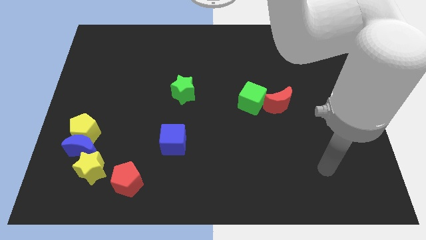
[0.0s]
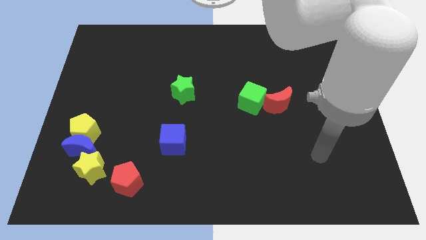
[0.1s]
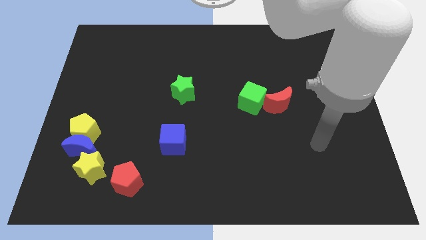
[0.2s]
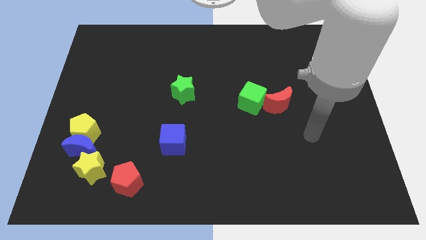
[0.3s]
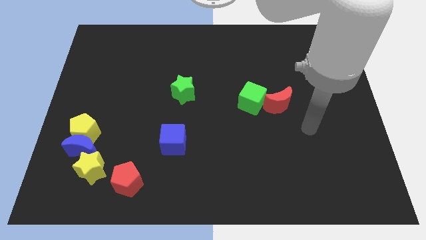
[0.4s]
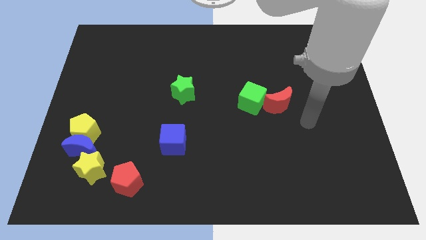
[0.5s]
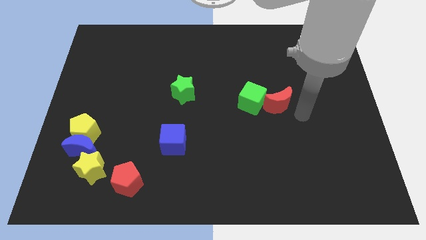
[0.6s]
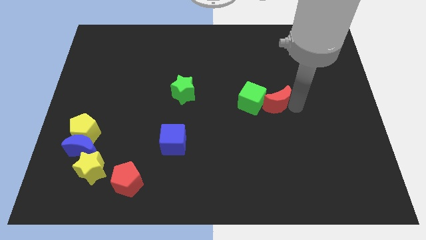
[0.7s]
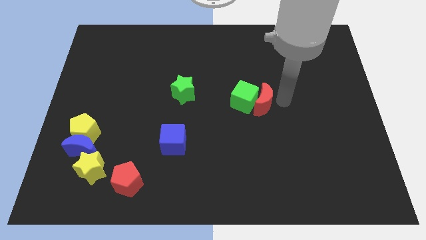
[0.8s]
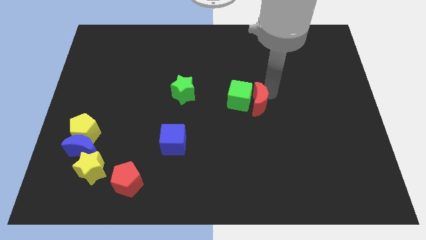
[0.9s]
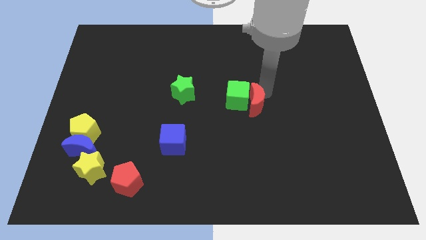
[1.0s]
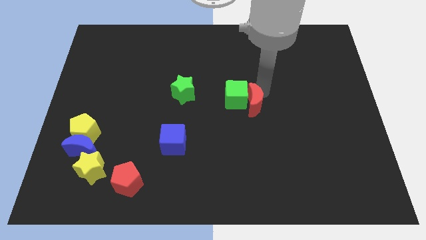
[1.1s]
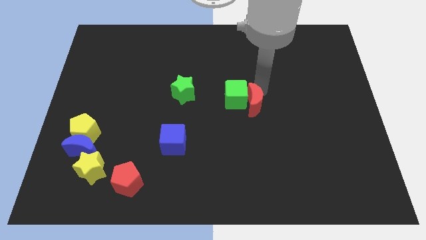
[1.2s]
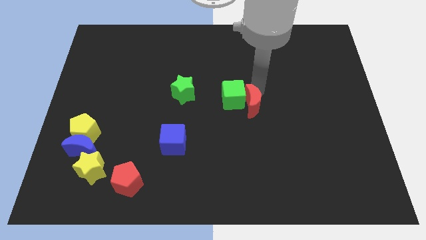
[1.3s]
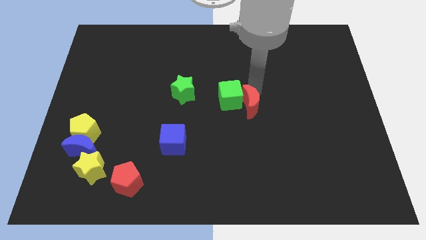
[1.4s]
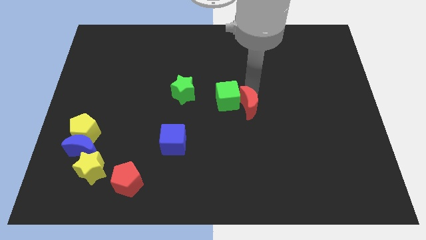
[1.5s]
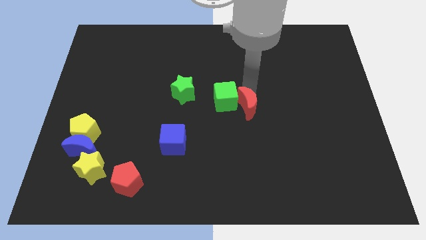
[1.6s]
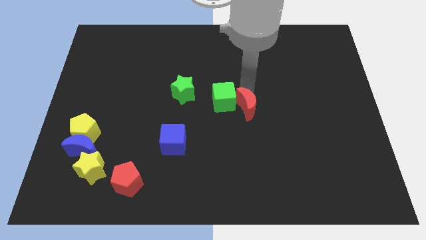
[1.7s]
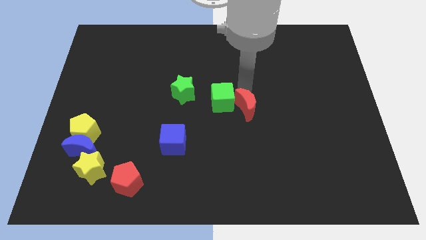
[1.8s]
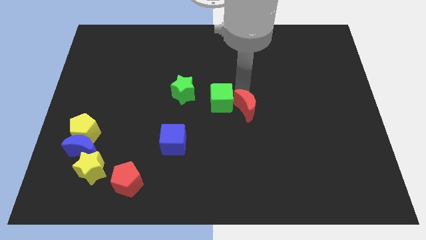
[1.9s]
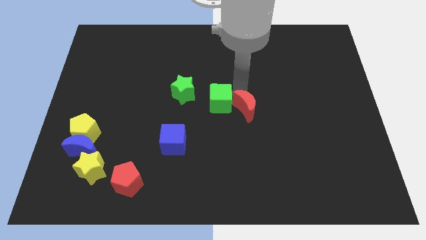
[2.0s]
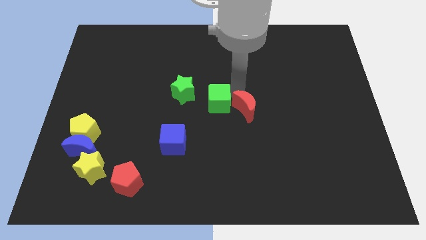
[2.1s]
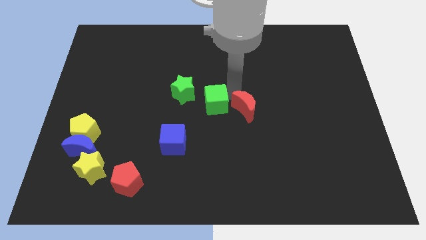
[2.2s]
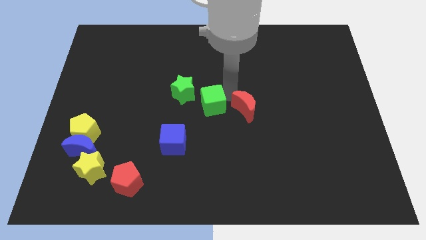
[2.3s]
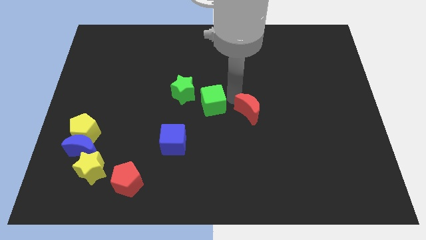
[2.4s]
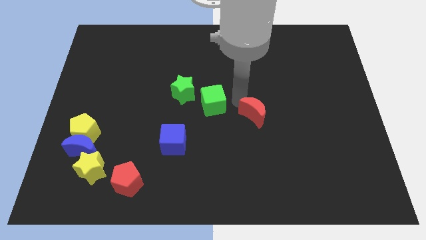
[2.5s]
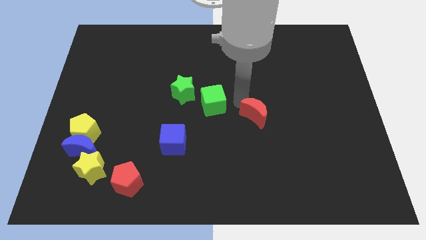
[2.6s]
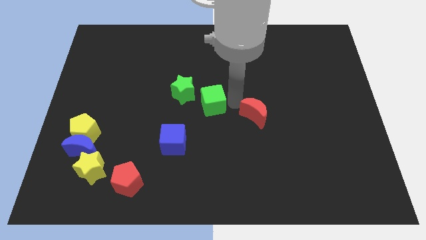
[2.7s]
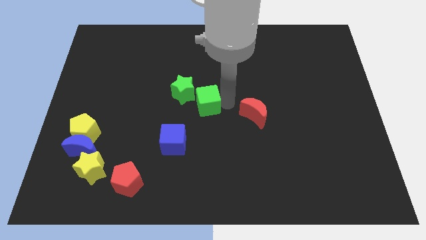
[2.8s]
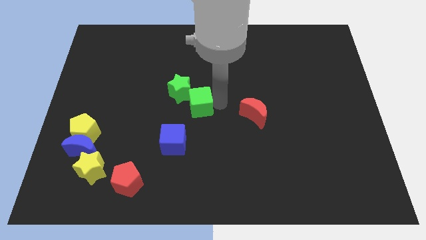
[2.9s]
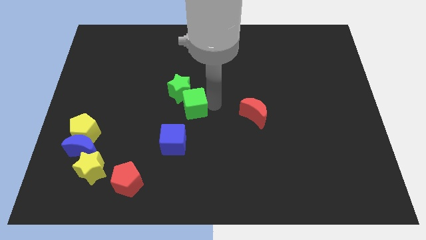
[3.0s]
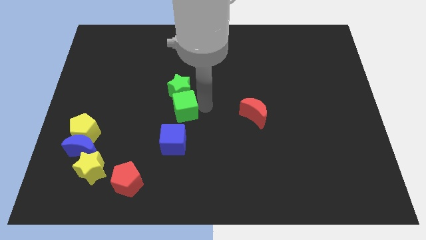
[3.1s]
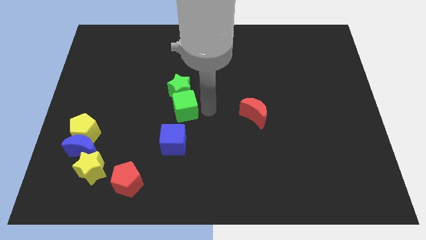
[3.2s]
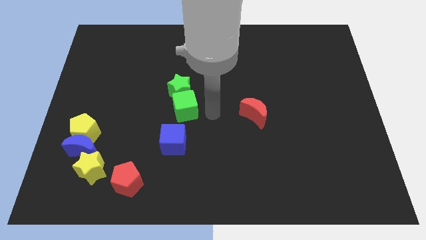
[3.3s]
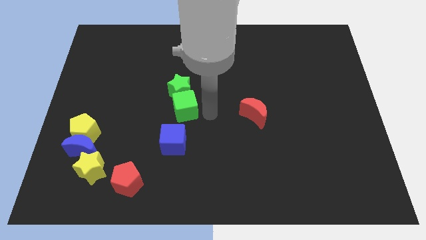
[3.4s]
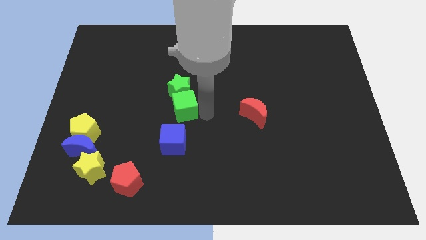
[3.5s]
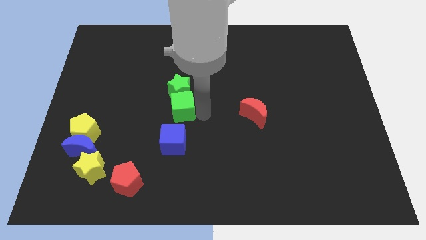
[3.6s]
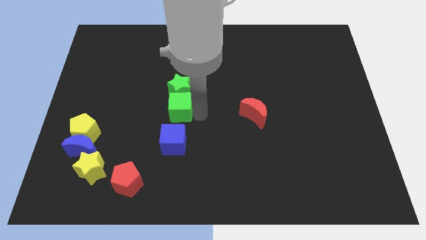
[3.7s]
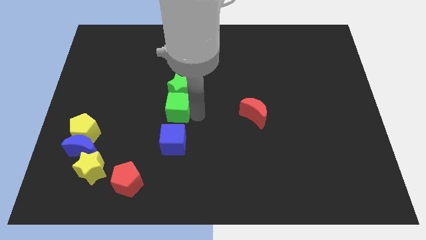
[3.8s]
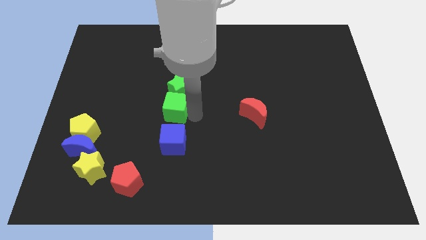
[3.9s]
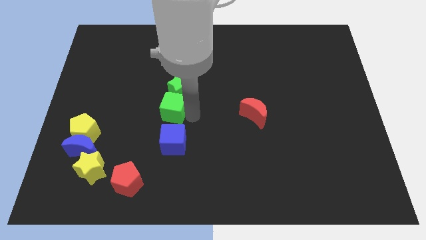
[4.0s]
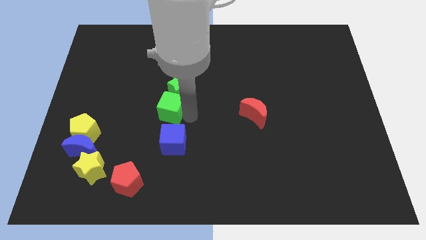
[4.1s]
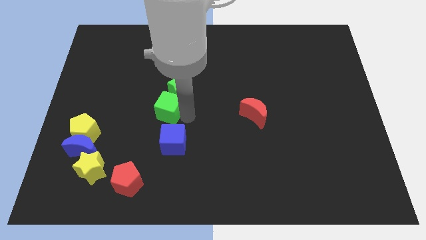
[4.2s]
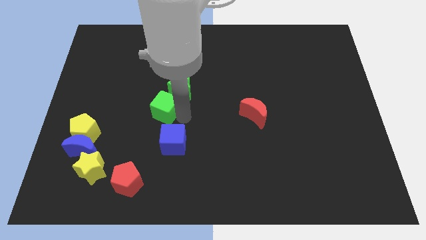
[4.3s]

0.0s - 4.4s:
move the green cube to the left

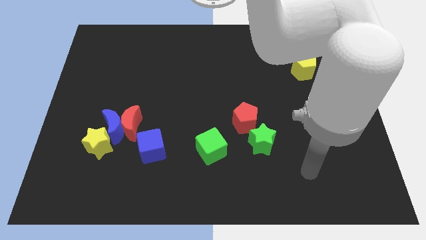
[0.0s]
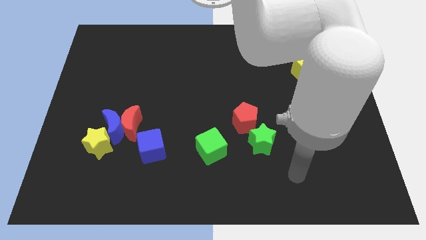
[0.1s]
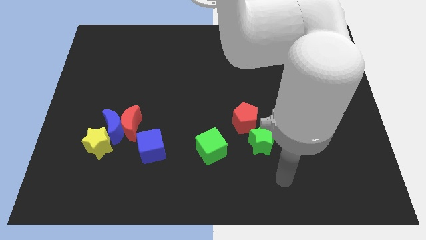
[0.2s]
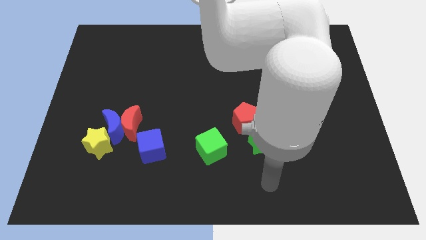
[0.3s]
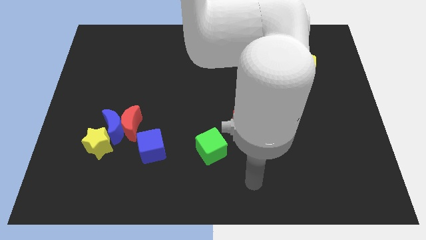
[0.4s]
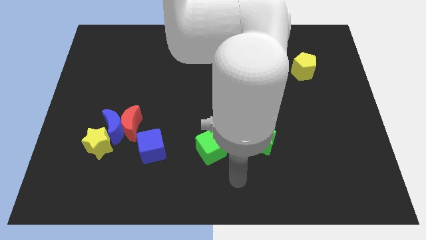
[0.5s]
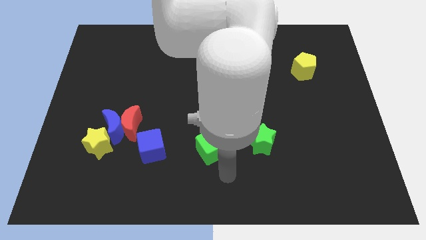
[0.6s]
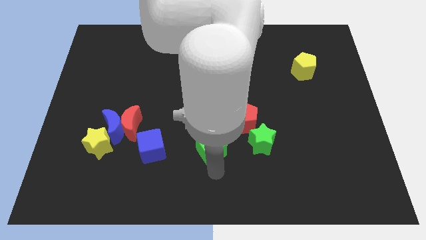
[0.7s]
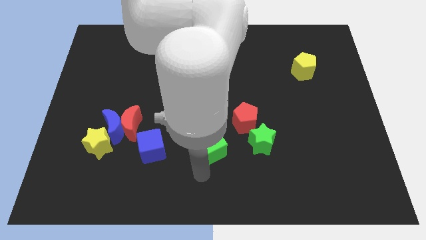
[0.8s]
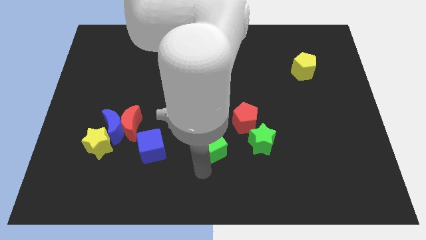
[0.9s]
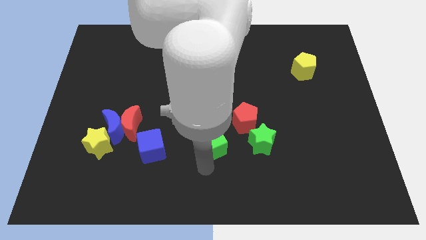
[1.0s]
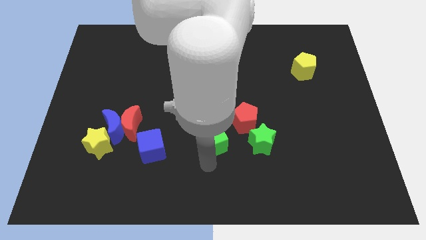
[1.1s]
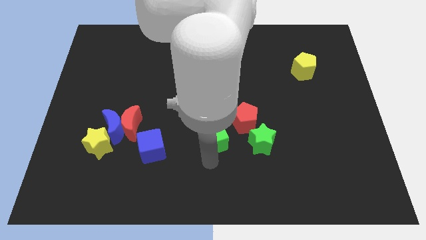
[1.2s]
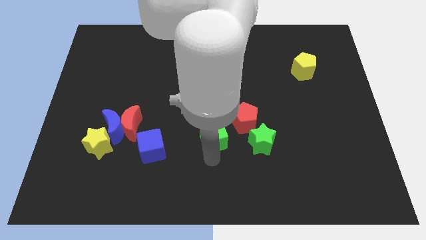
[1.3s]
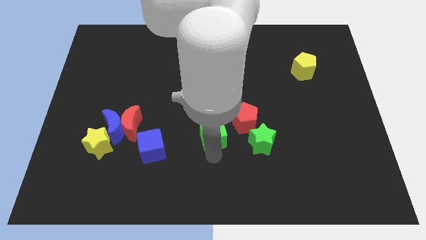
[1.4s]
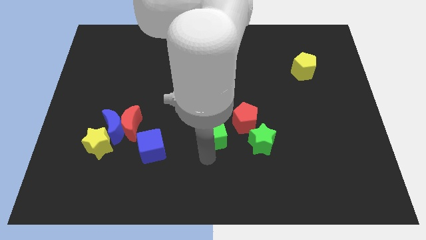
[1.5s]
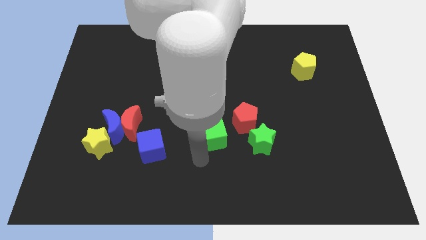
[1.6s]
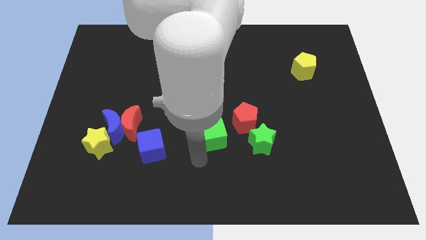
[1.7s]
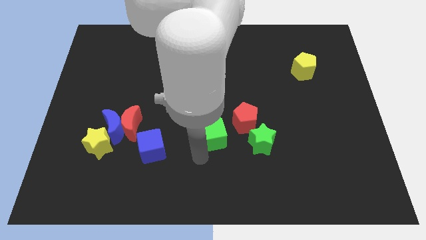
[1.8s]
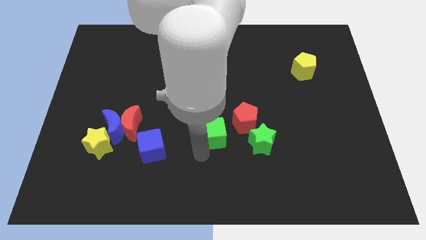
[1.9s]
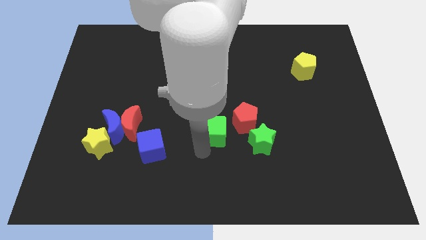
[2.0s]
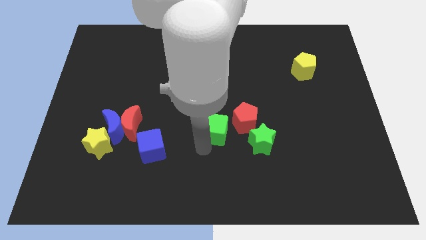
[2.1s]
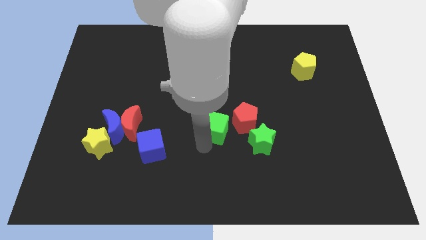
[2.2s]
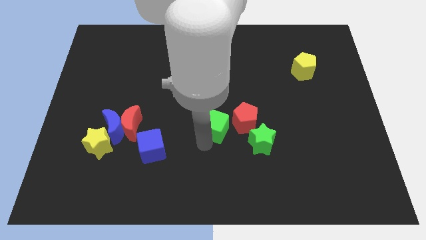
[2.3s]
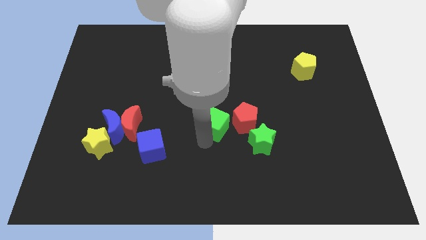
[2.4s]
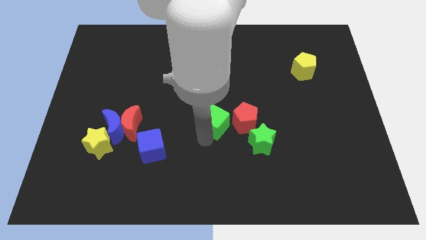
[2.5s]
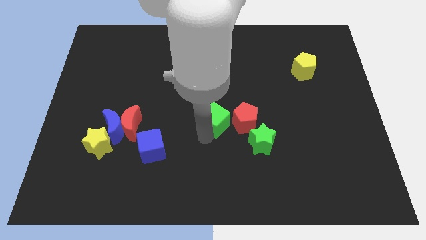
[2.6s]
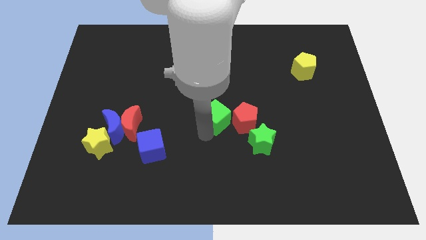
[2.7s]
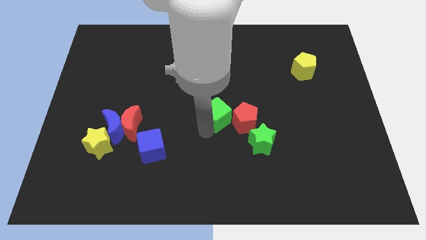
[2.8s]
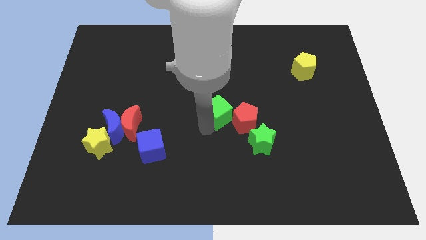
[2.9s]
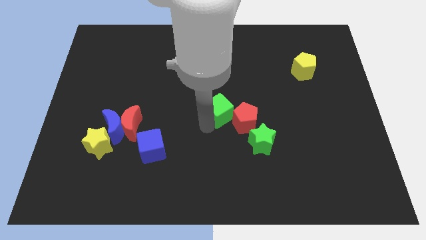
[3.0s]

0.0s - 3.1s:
slightly slide the green cube diagonally upwards and right

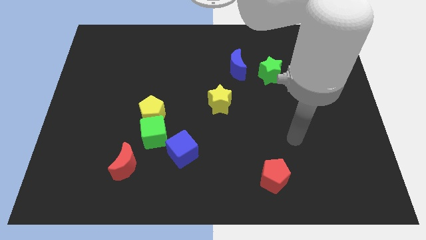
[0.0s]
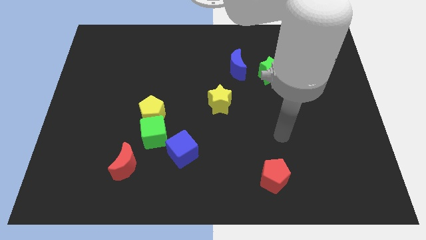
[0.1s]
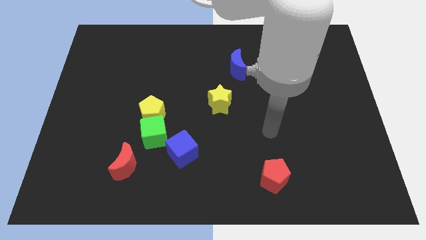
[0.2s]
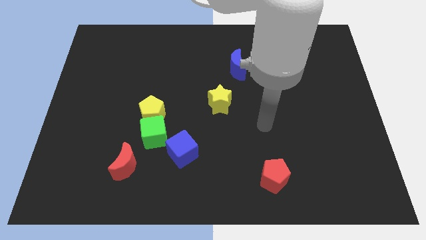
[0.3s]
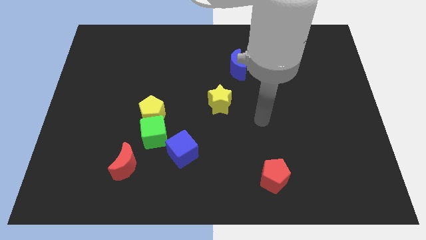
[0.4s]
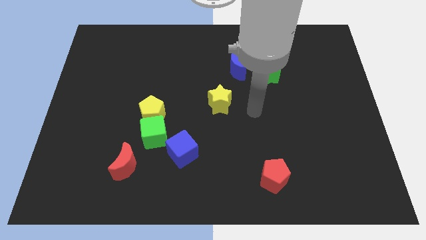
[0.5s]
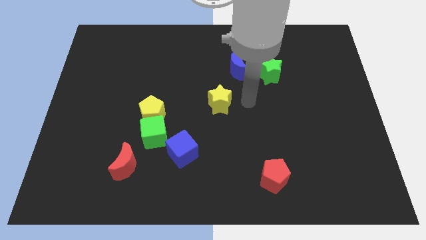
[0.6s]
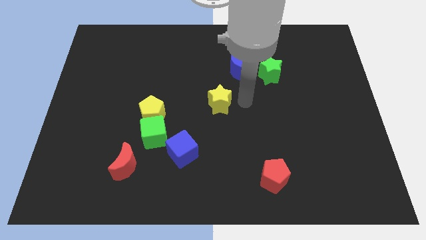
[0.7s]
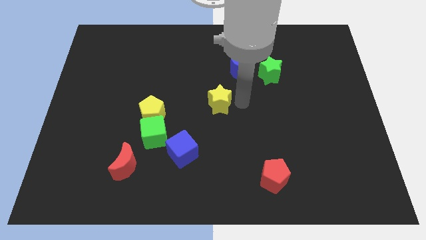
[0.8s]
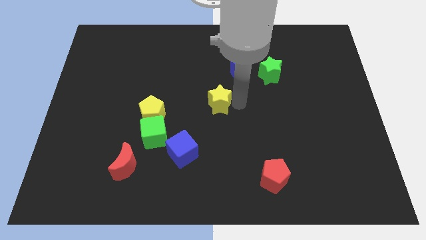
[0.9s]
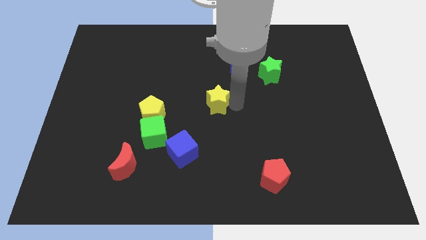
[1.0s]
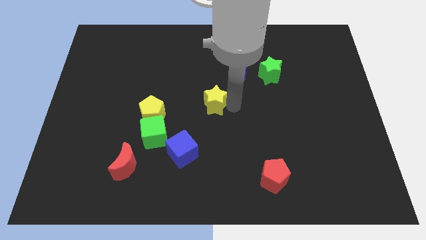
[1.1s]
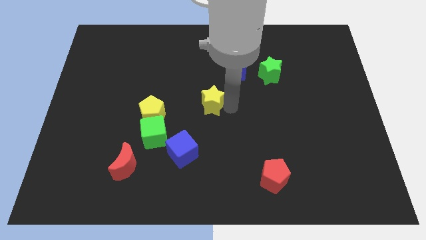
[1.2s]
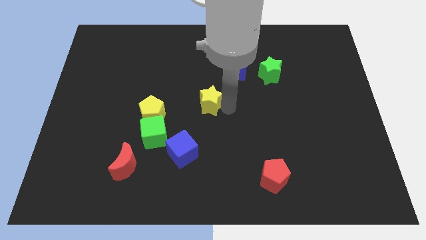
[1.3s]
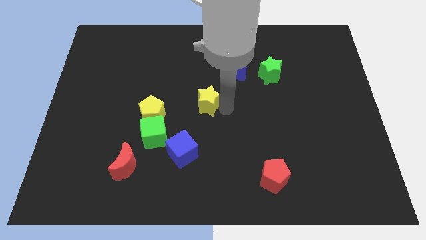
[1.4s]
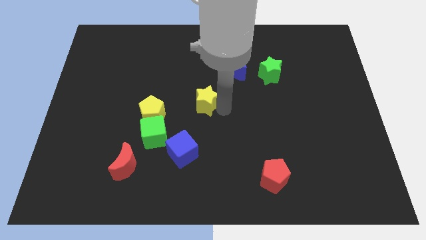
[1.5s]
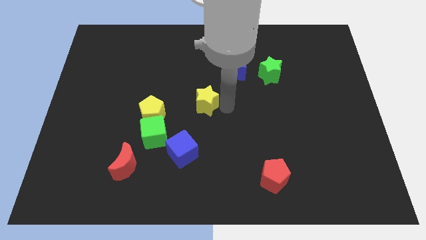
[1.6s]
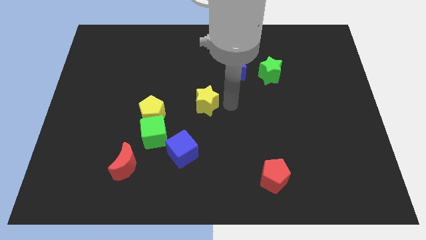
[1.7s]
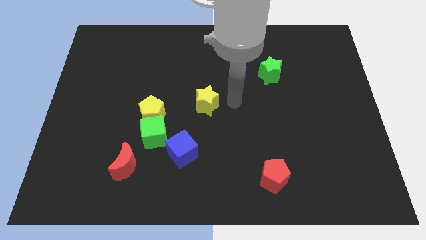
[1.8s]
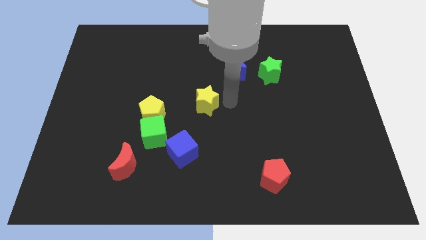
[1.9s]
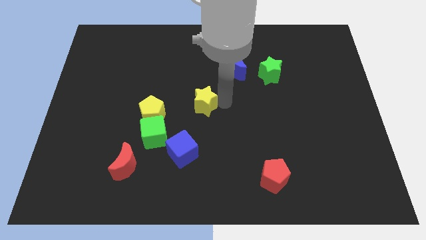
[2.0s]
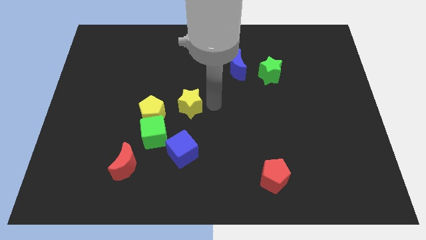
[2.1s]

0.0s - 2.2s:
push the yellow star a little to the left
